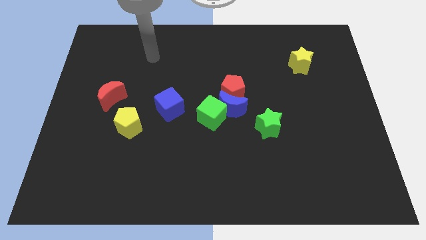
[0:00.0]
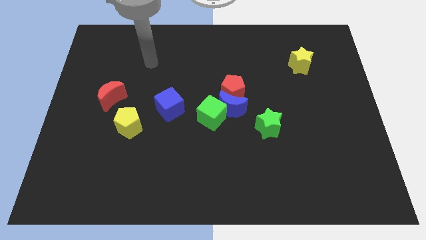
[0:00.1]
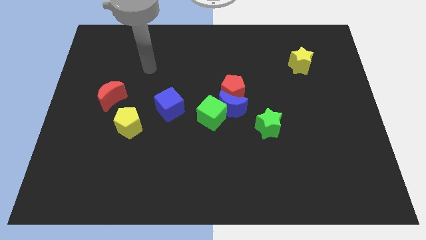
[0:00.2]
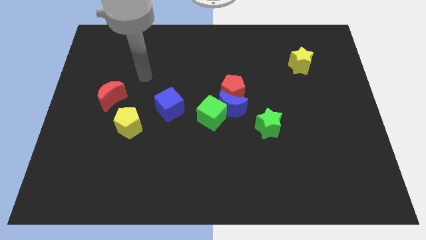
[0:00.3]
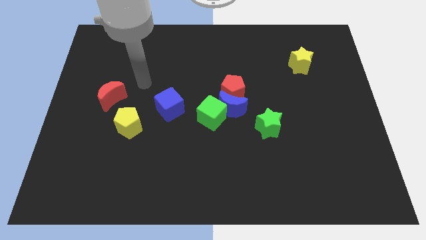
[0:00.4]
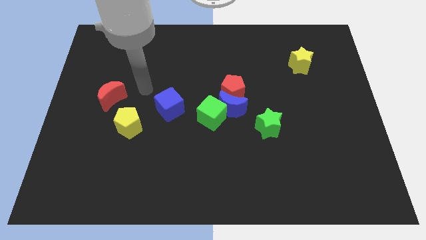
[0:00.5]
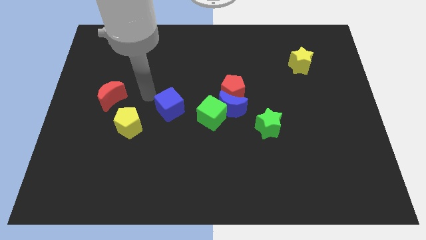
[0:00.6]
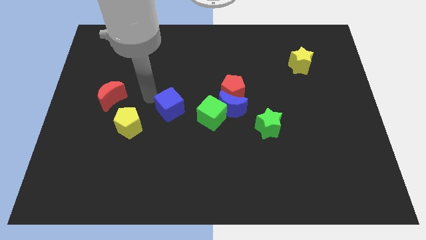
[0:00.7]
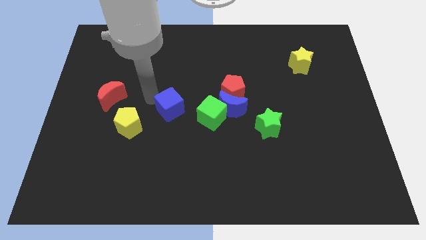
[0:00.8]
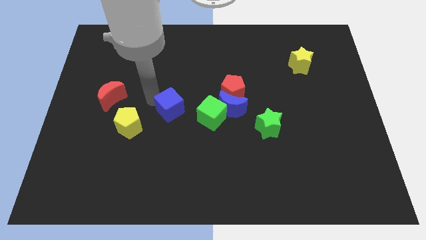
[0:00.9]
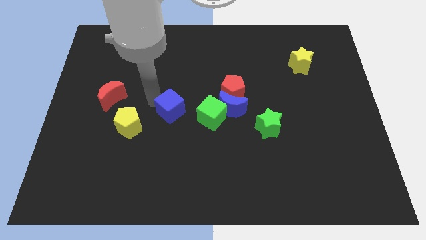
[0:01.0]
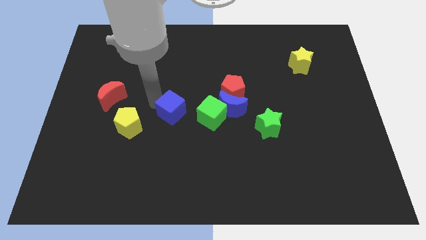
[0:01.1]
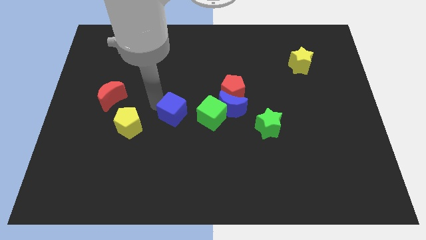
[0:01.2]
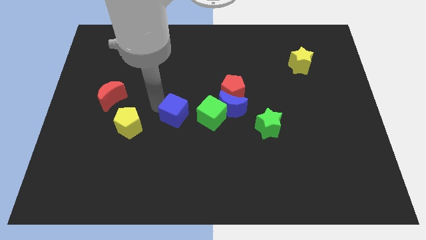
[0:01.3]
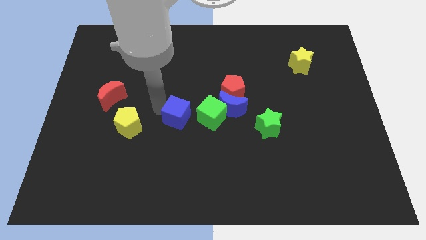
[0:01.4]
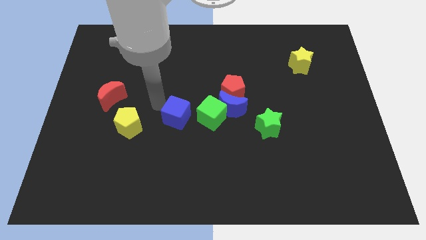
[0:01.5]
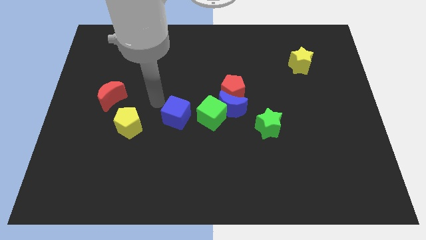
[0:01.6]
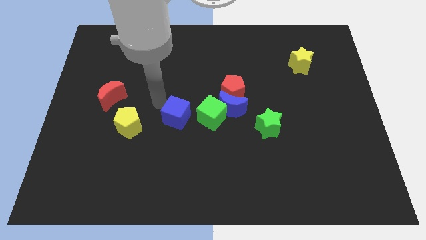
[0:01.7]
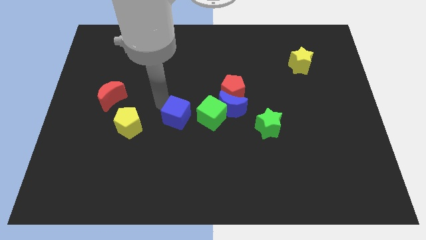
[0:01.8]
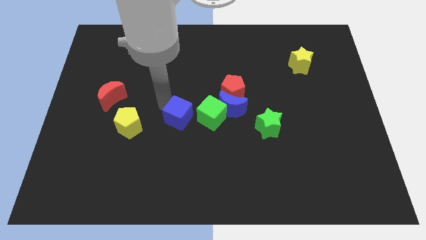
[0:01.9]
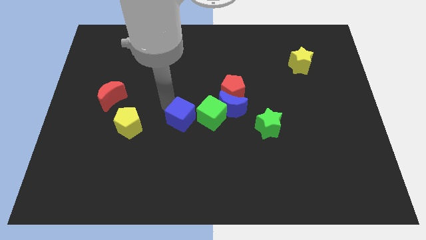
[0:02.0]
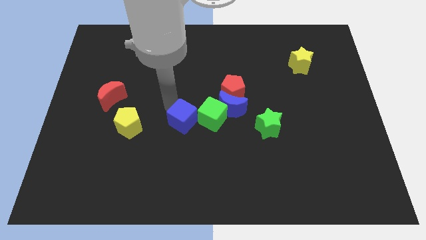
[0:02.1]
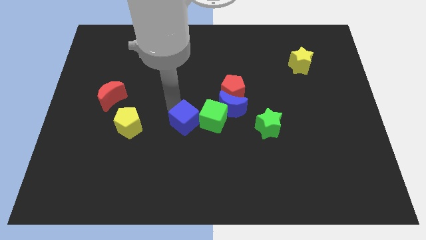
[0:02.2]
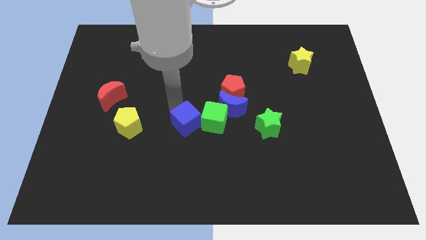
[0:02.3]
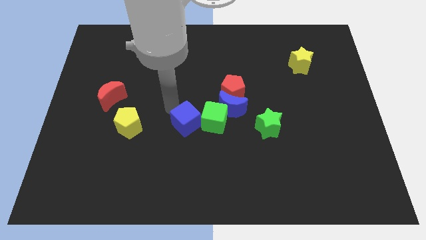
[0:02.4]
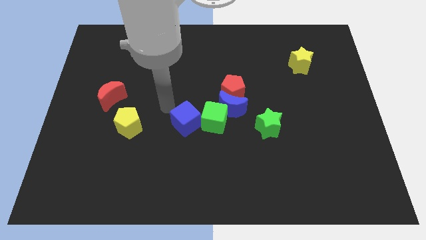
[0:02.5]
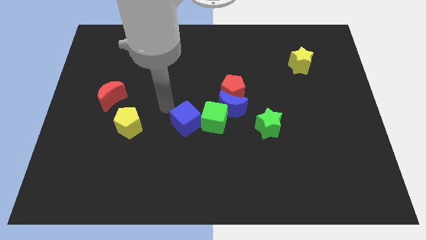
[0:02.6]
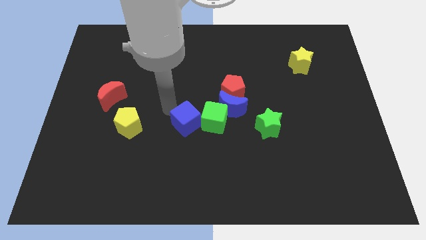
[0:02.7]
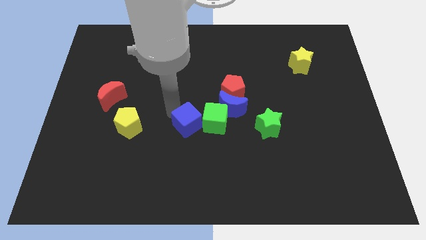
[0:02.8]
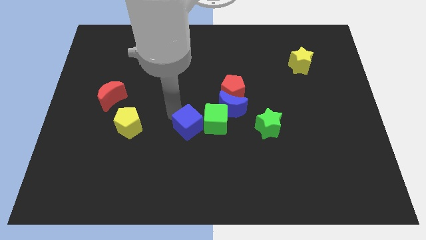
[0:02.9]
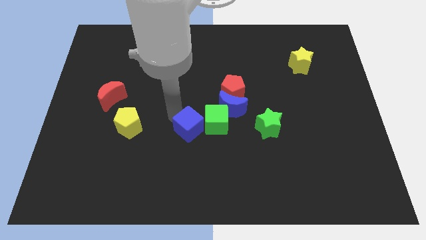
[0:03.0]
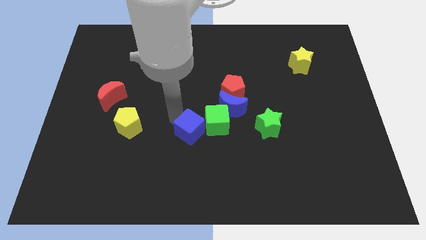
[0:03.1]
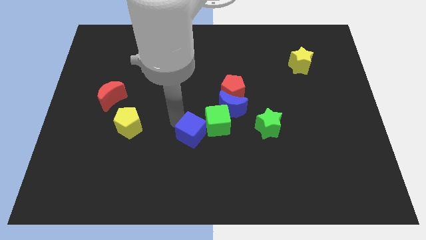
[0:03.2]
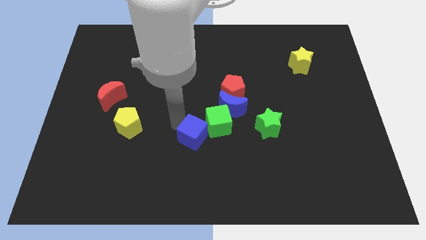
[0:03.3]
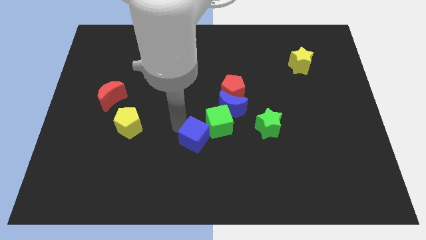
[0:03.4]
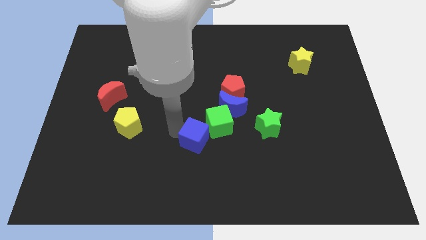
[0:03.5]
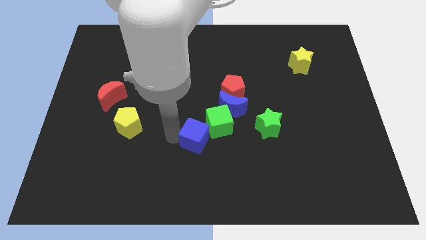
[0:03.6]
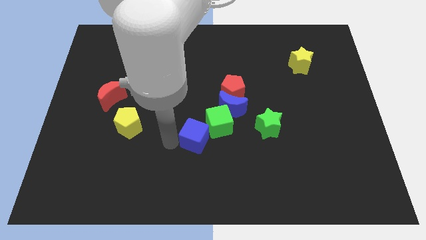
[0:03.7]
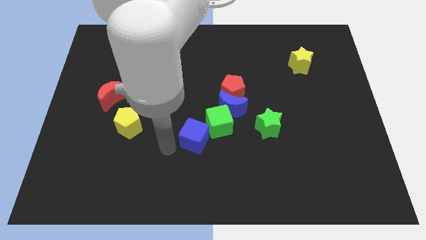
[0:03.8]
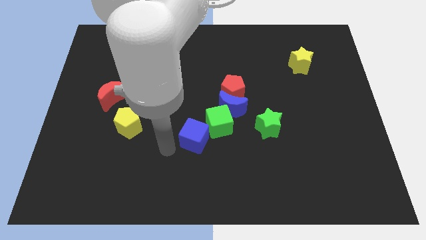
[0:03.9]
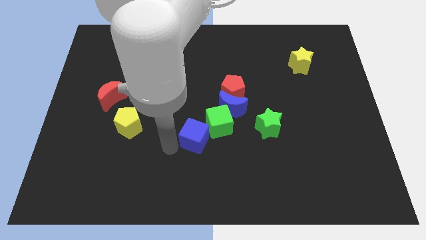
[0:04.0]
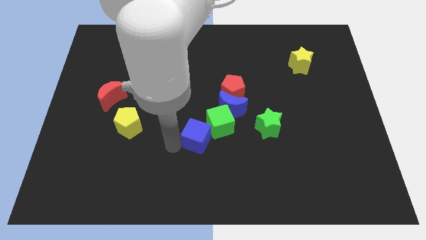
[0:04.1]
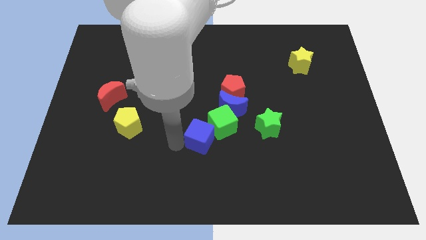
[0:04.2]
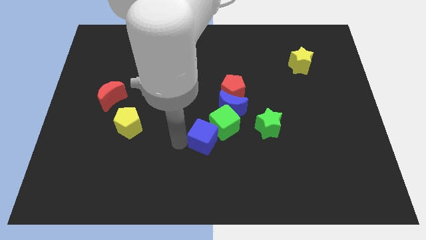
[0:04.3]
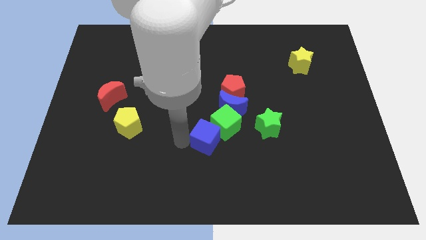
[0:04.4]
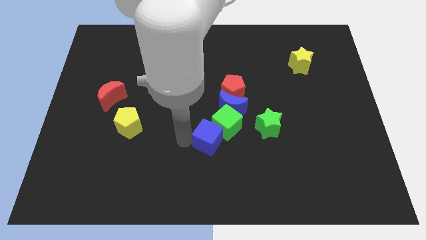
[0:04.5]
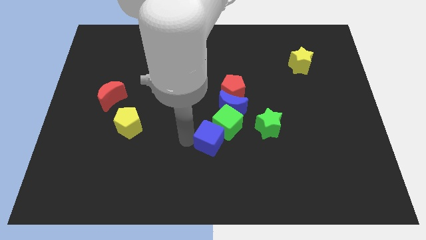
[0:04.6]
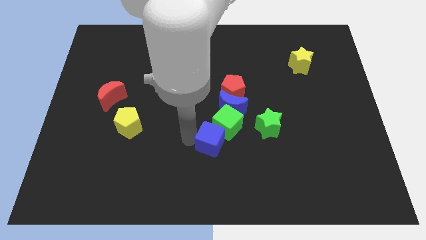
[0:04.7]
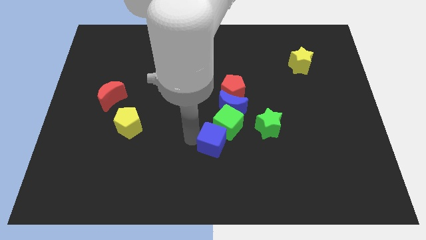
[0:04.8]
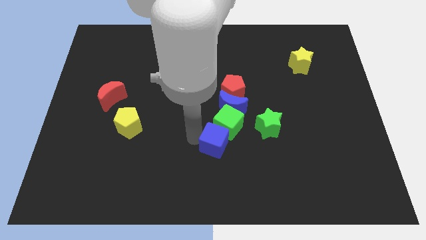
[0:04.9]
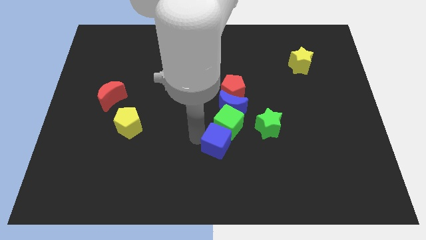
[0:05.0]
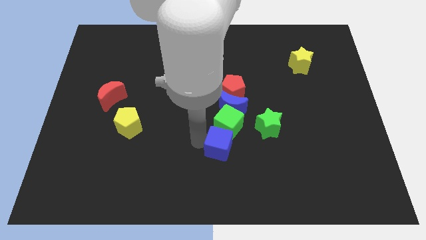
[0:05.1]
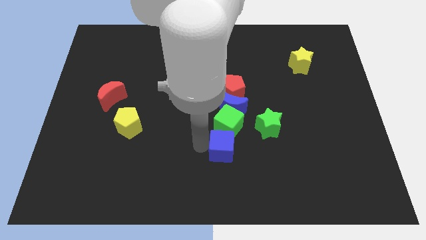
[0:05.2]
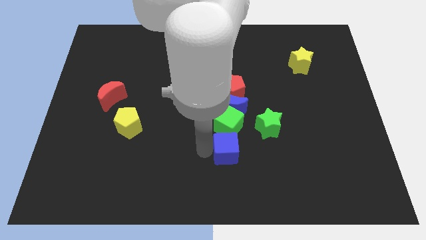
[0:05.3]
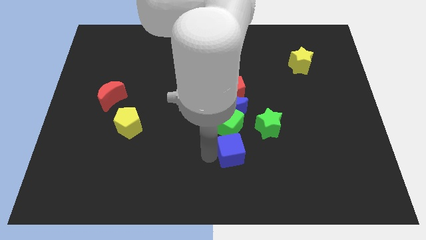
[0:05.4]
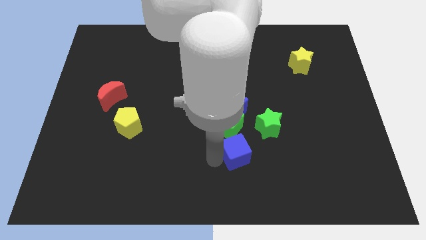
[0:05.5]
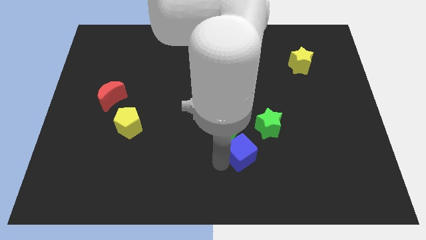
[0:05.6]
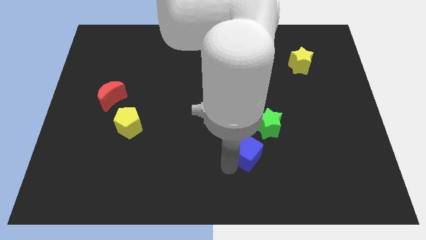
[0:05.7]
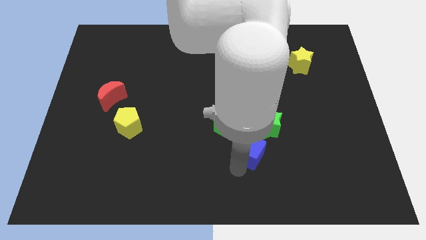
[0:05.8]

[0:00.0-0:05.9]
slightly slide the blue cube right

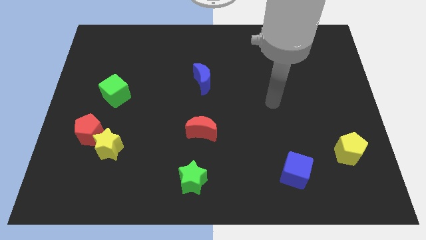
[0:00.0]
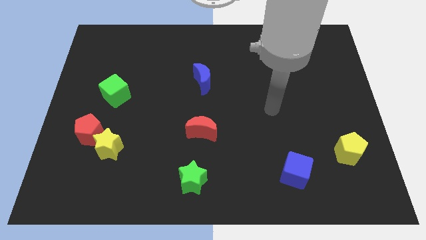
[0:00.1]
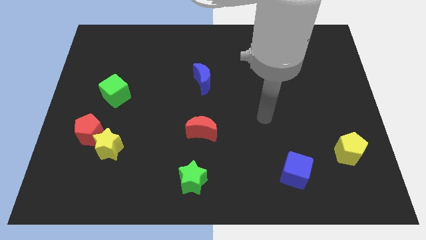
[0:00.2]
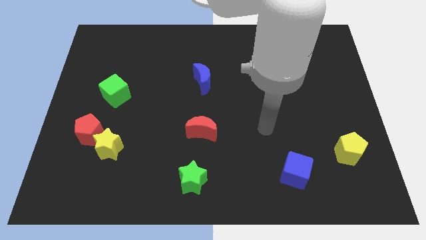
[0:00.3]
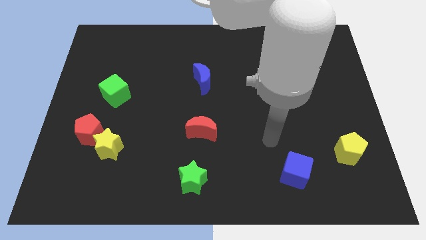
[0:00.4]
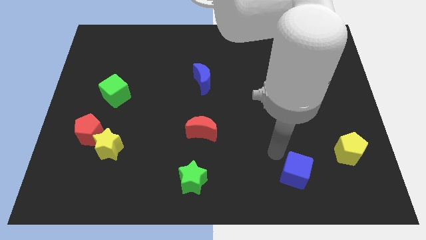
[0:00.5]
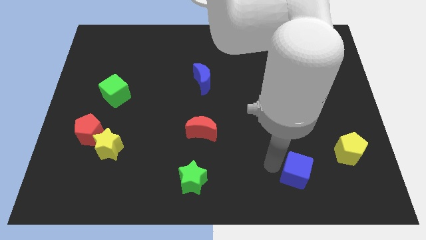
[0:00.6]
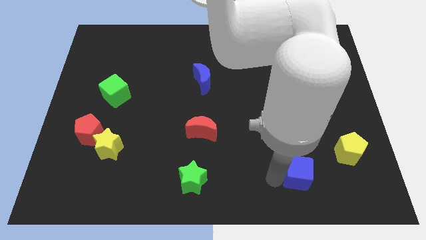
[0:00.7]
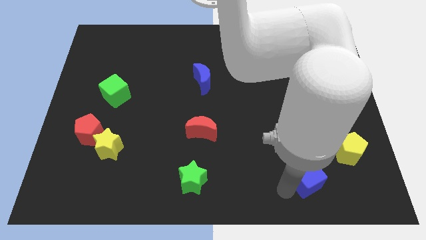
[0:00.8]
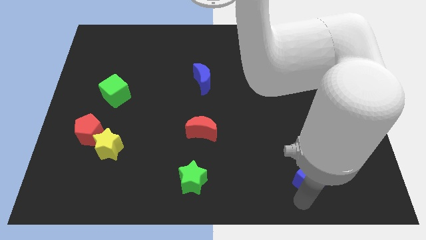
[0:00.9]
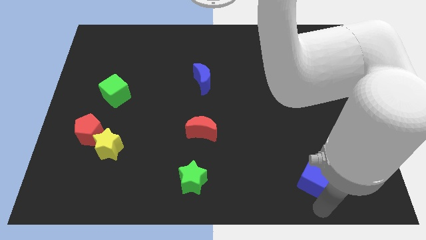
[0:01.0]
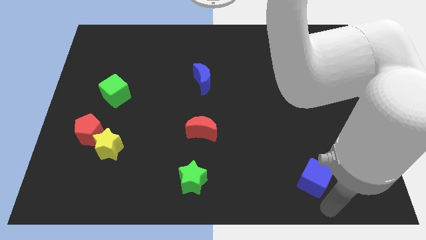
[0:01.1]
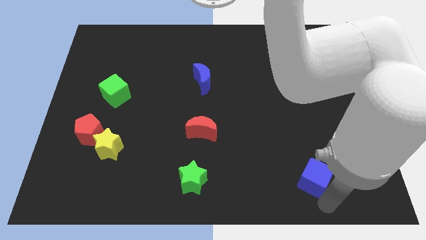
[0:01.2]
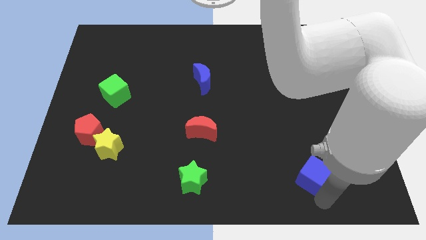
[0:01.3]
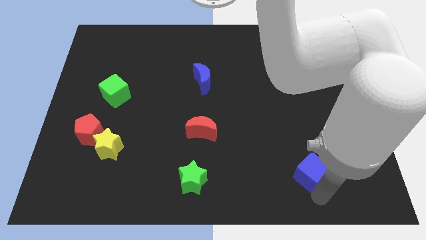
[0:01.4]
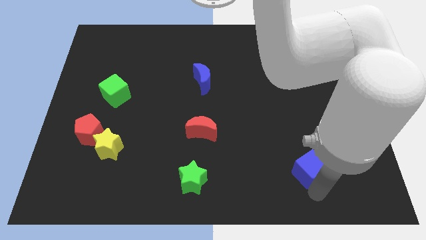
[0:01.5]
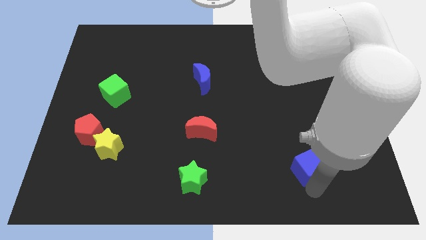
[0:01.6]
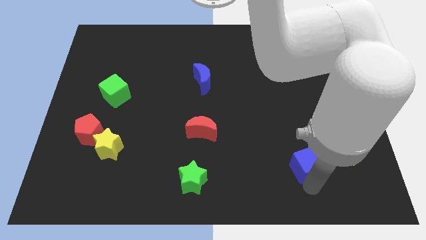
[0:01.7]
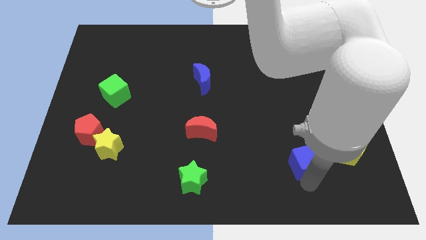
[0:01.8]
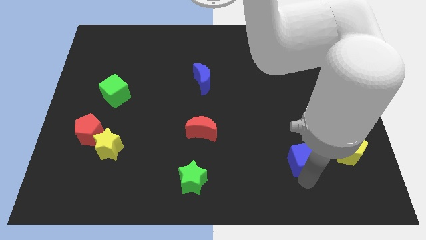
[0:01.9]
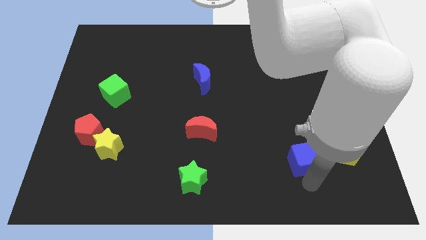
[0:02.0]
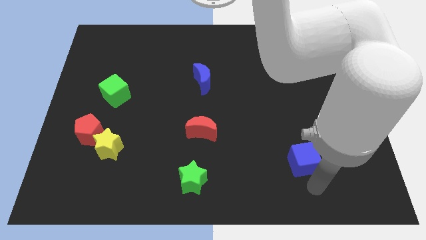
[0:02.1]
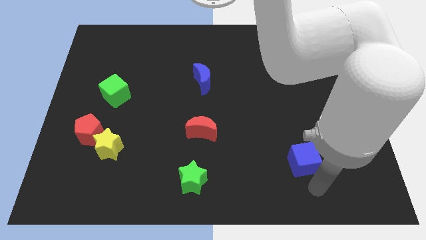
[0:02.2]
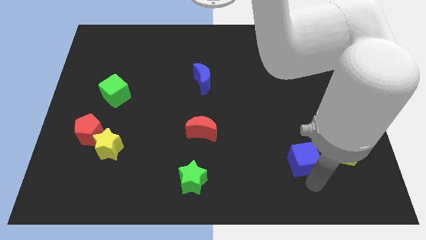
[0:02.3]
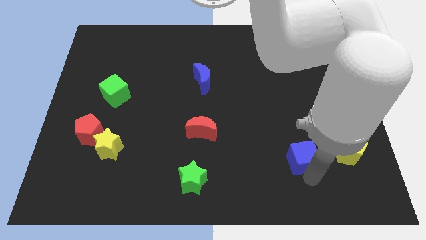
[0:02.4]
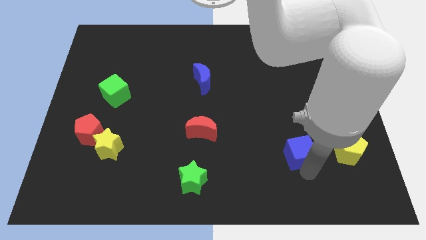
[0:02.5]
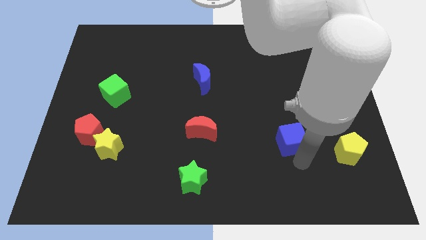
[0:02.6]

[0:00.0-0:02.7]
slide the blue cube slightly up
